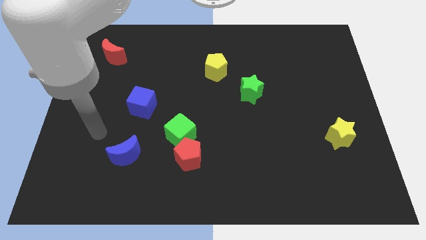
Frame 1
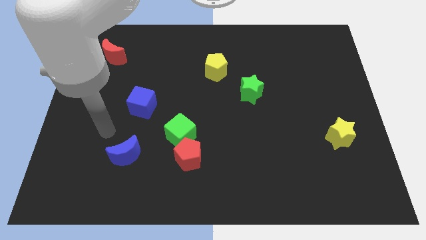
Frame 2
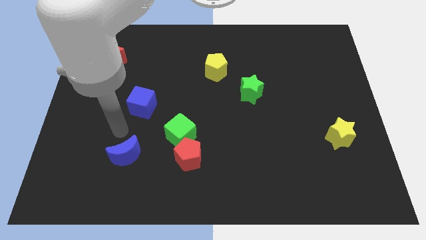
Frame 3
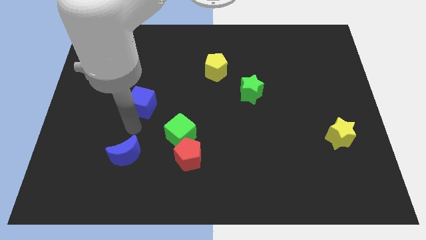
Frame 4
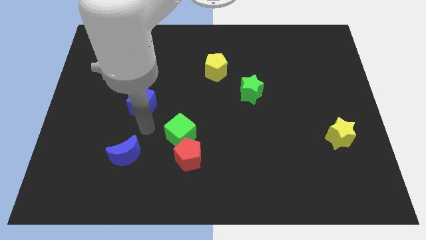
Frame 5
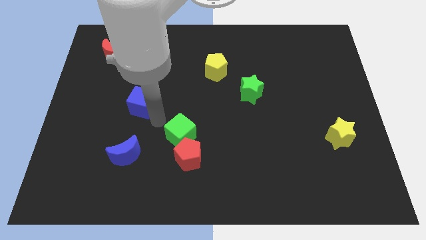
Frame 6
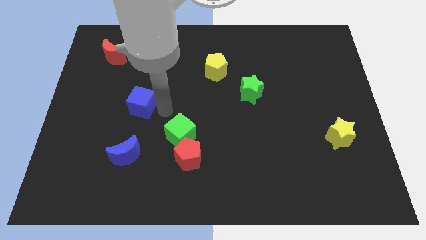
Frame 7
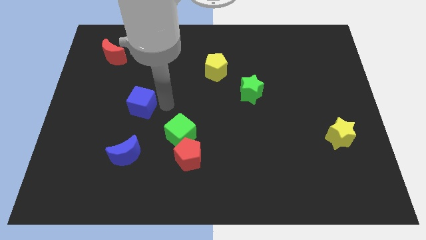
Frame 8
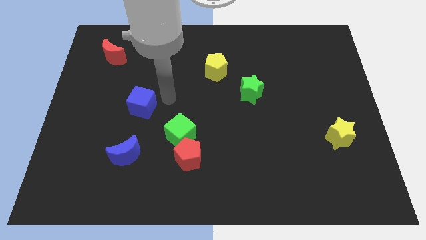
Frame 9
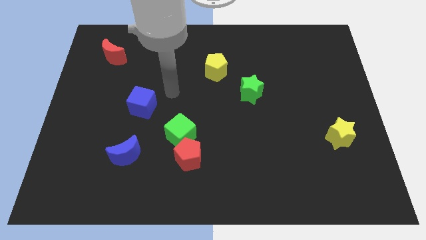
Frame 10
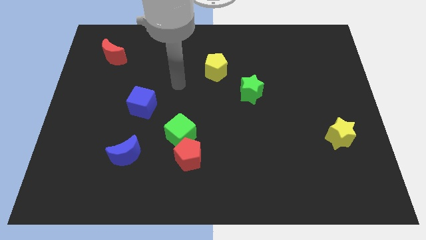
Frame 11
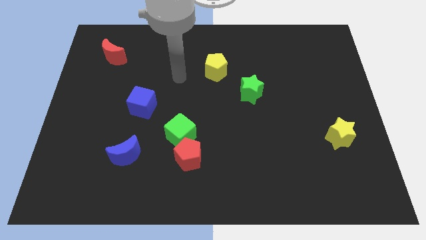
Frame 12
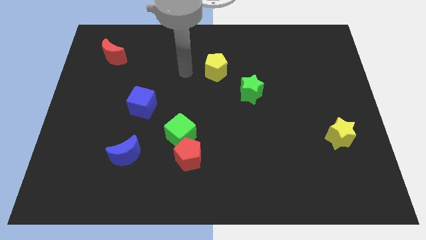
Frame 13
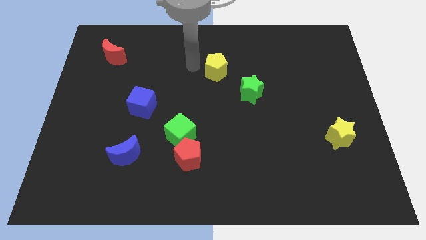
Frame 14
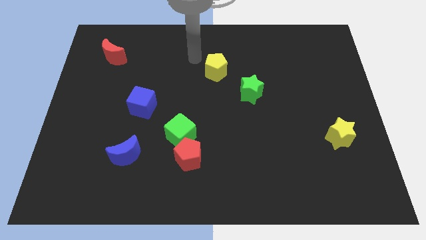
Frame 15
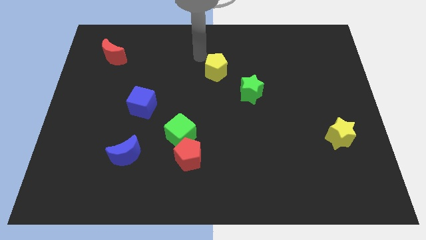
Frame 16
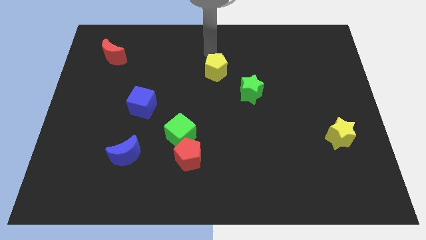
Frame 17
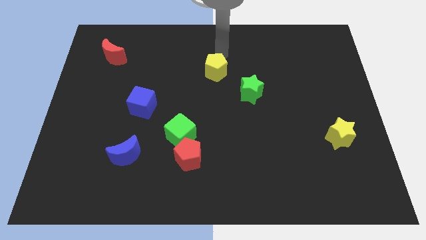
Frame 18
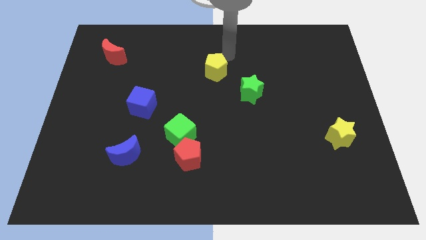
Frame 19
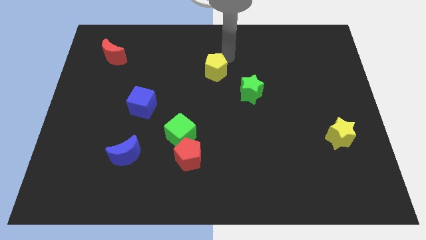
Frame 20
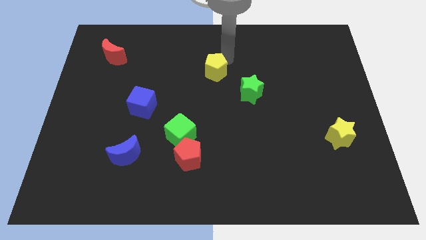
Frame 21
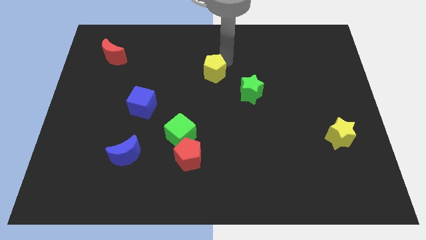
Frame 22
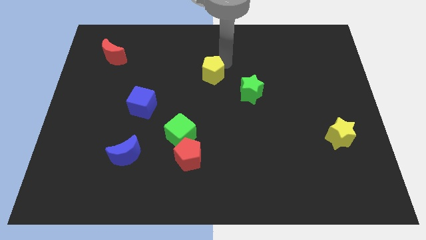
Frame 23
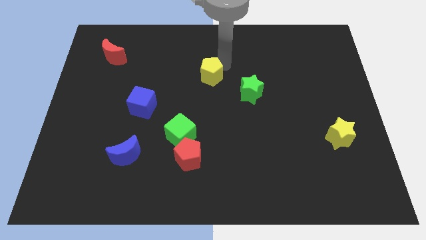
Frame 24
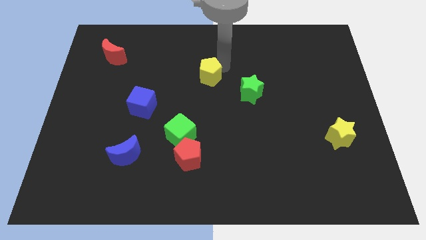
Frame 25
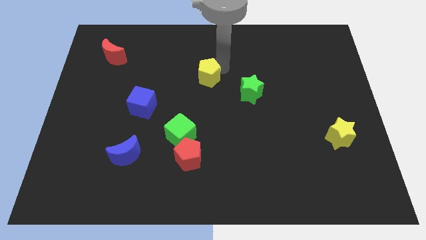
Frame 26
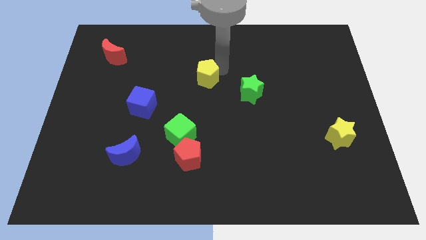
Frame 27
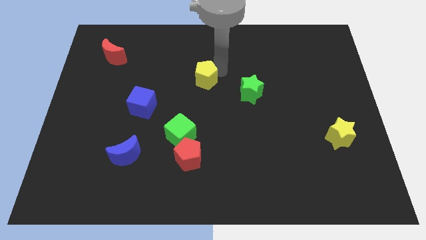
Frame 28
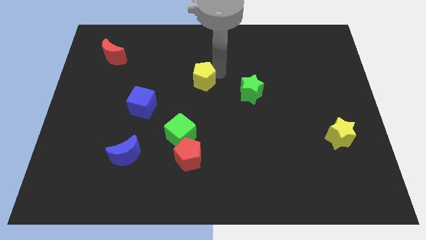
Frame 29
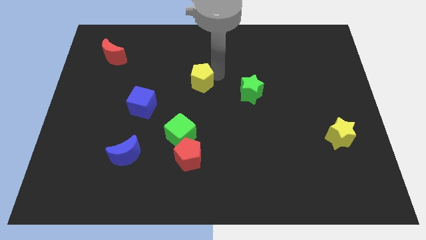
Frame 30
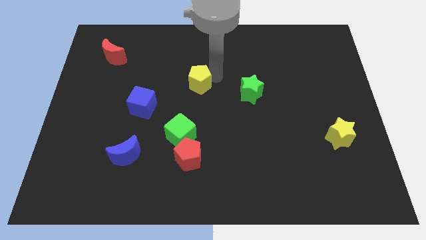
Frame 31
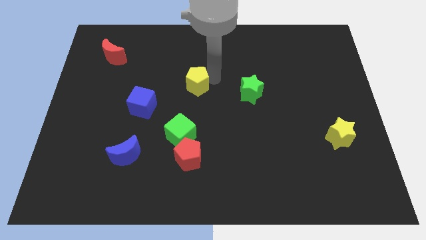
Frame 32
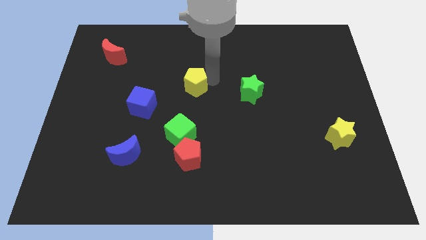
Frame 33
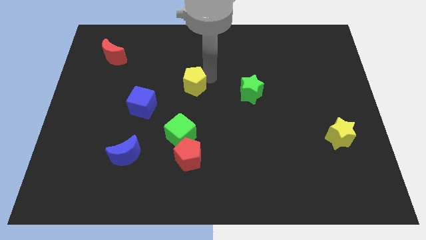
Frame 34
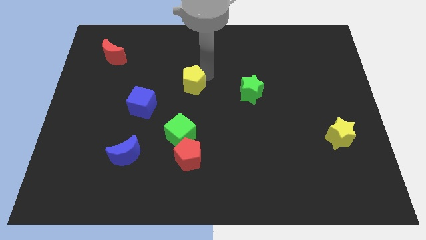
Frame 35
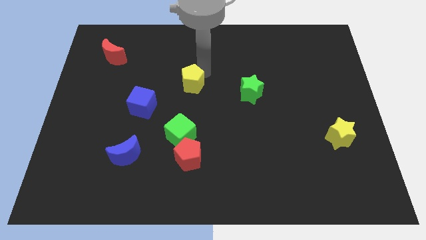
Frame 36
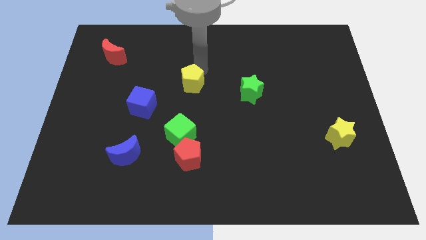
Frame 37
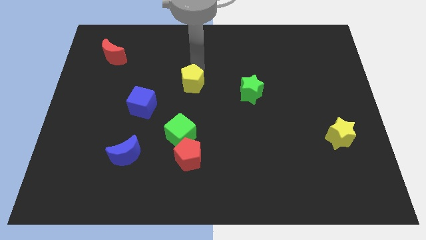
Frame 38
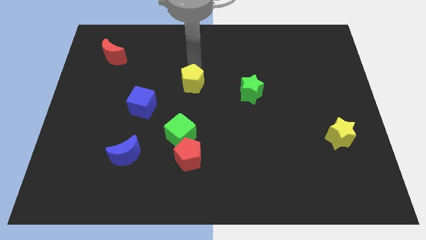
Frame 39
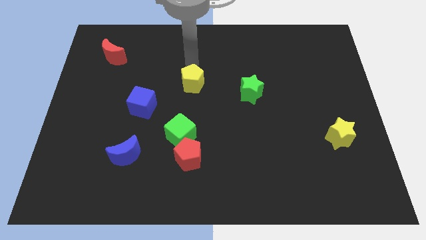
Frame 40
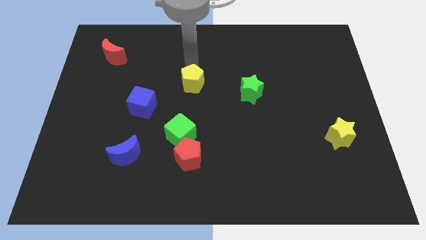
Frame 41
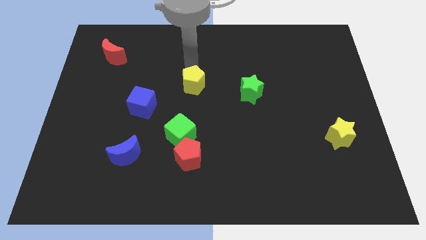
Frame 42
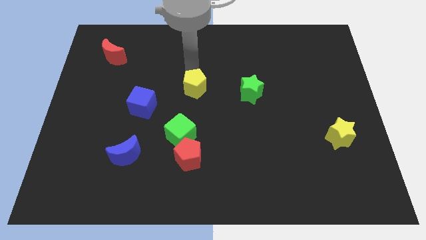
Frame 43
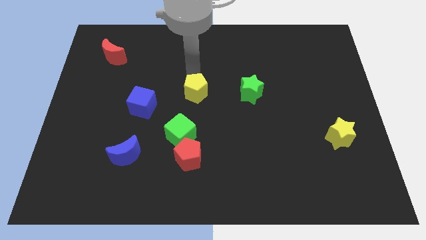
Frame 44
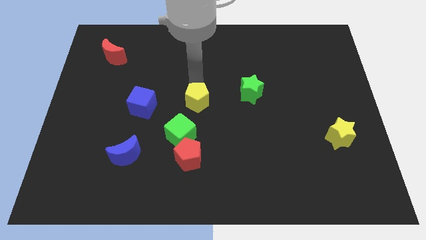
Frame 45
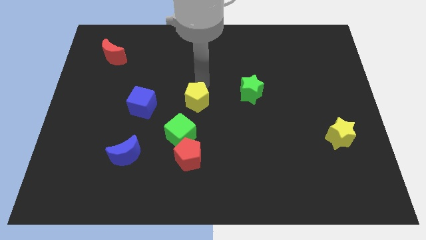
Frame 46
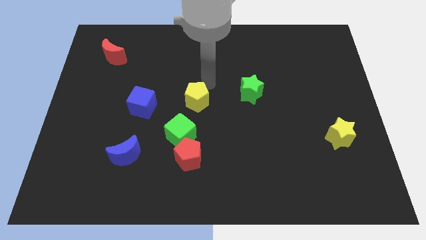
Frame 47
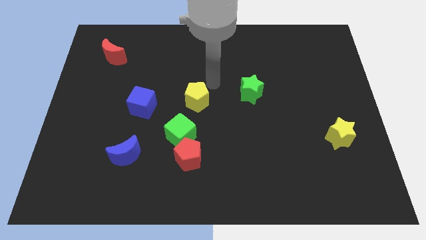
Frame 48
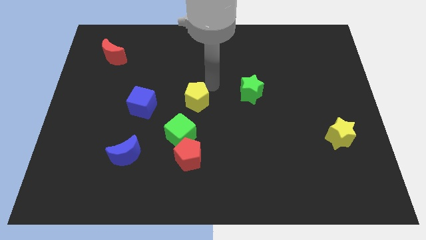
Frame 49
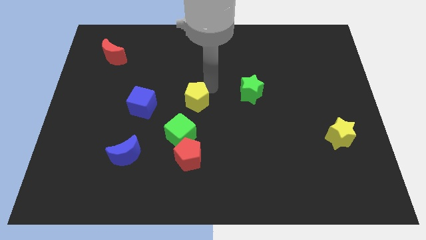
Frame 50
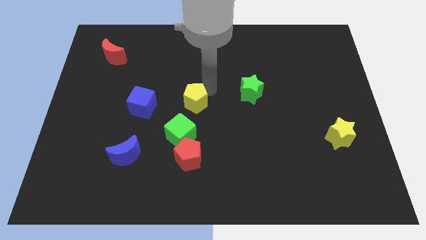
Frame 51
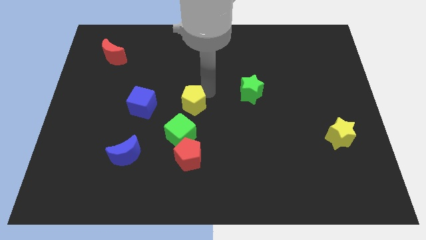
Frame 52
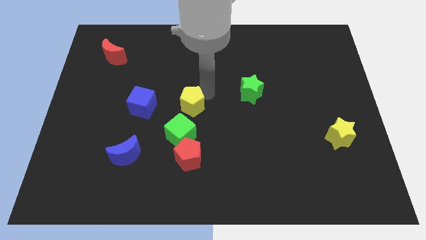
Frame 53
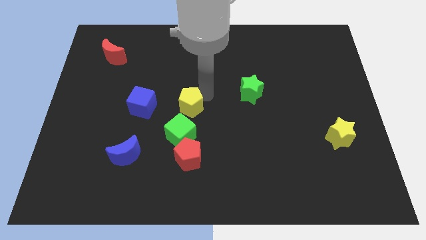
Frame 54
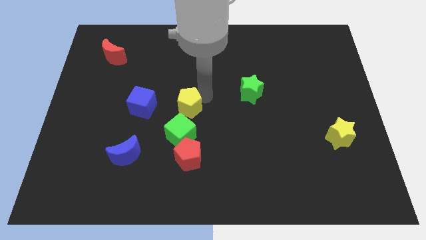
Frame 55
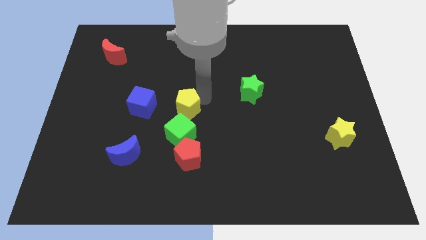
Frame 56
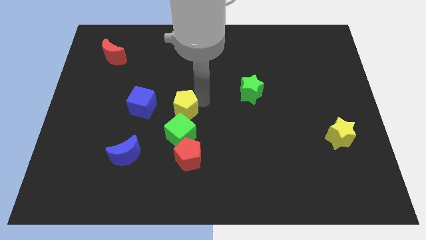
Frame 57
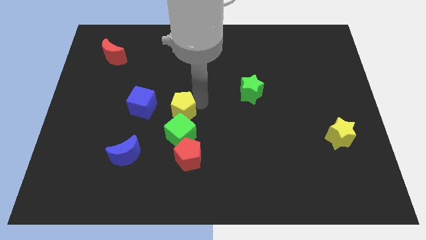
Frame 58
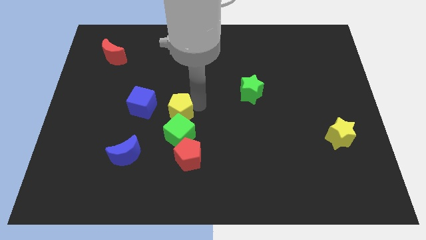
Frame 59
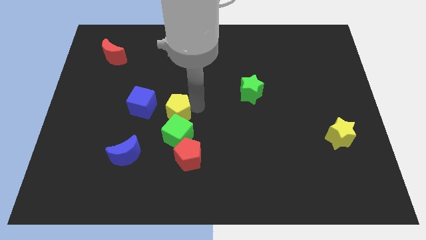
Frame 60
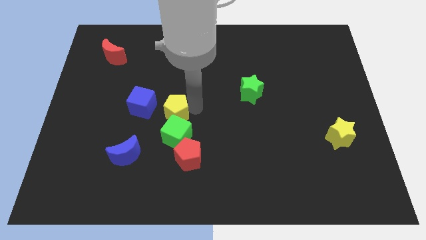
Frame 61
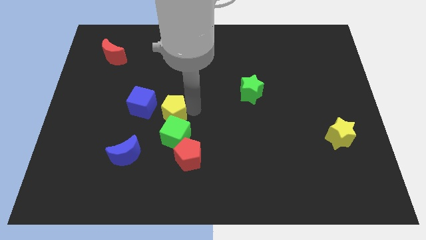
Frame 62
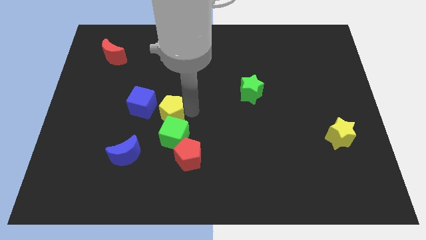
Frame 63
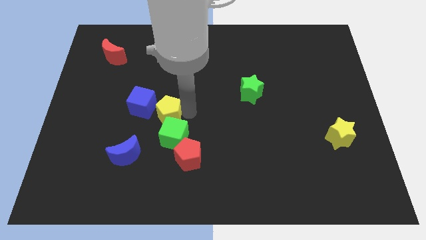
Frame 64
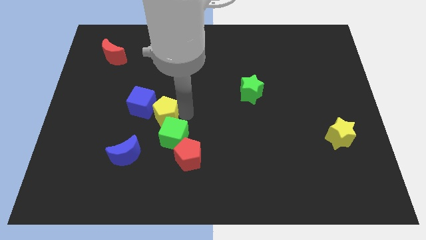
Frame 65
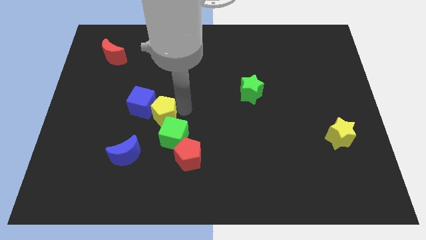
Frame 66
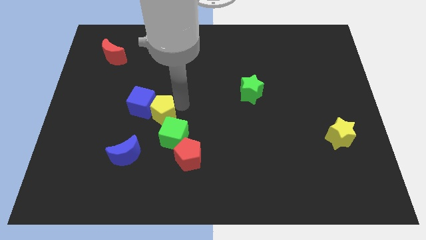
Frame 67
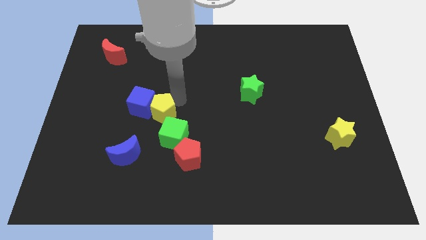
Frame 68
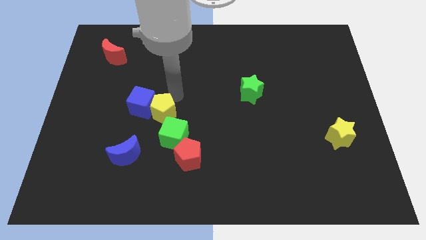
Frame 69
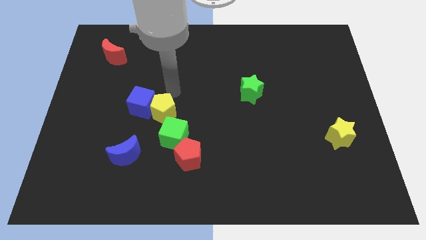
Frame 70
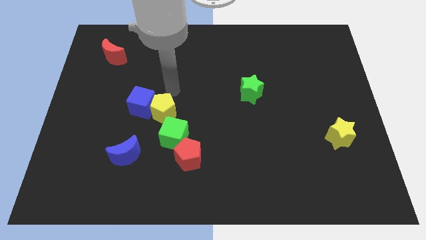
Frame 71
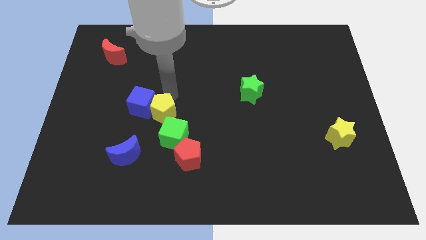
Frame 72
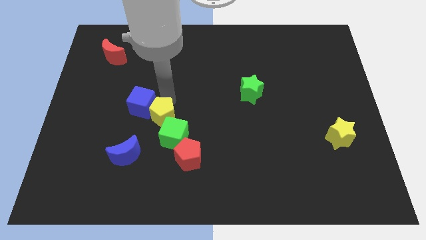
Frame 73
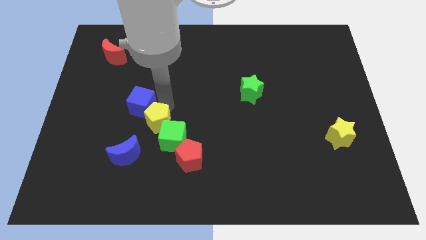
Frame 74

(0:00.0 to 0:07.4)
move the yellow pentagon diagonally up and to the right of the blue moon

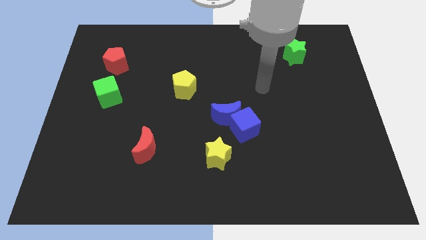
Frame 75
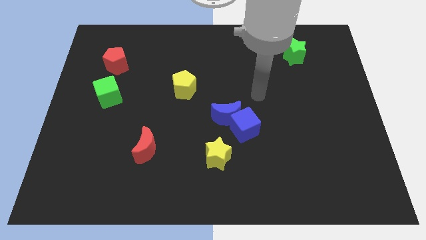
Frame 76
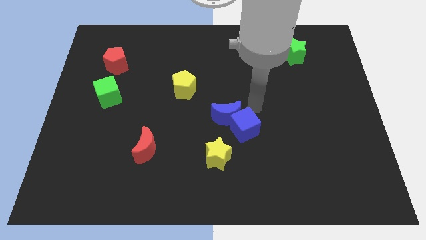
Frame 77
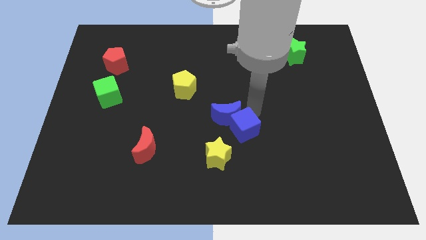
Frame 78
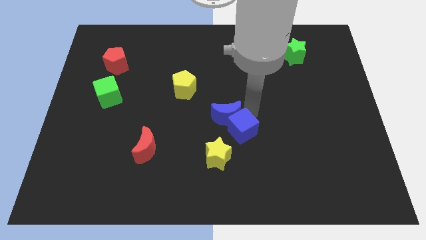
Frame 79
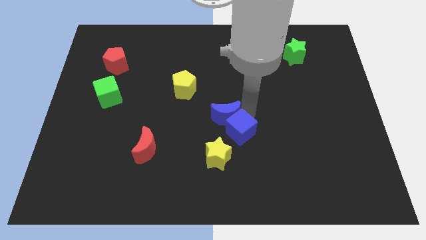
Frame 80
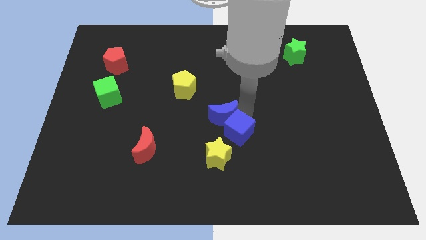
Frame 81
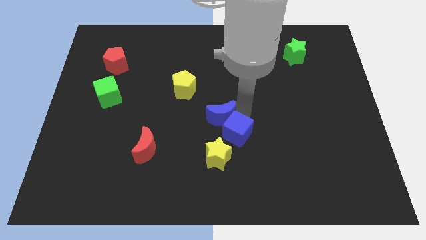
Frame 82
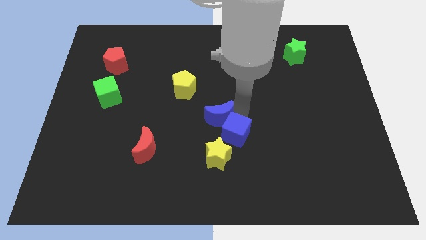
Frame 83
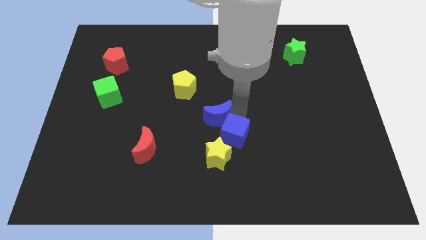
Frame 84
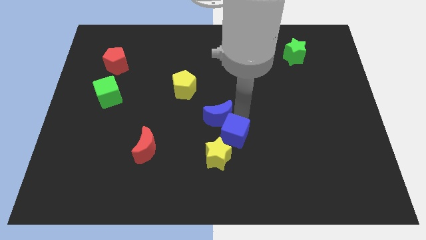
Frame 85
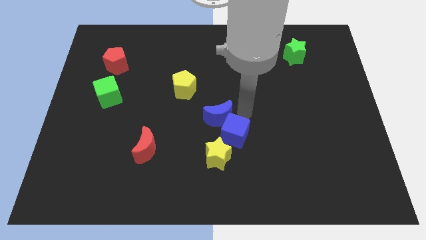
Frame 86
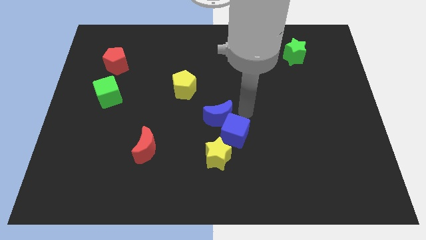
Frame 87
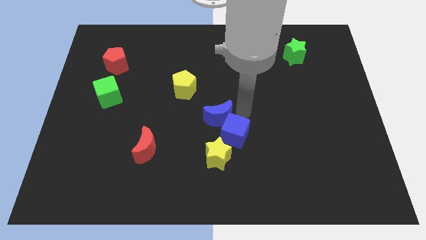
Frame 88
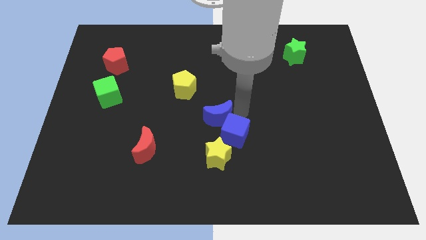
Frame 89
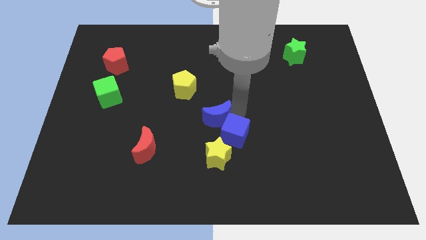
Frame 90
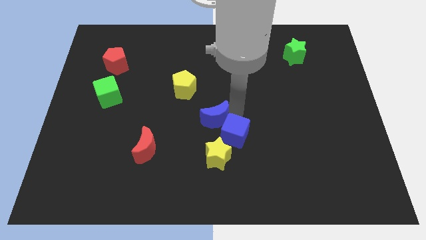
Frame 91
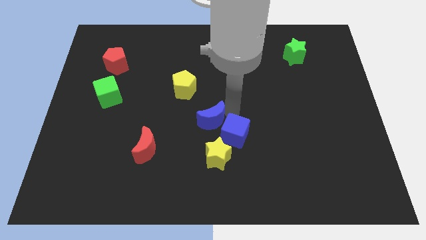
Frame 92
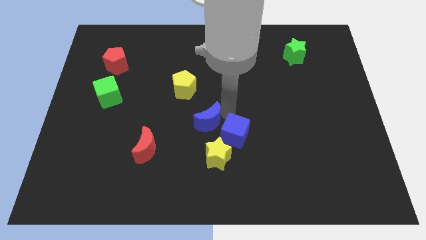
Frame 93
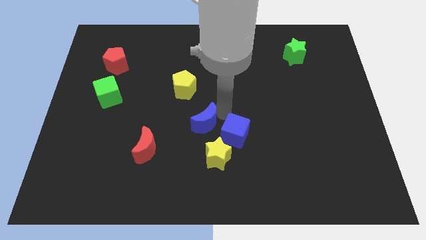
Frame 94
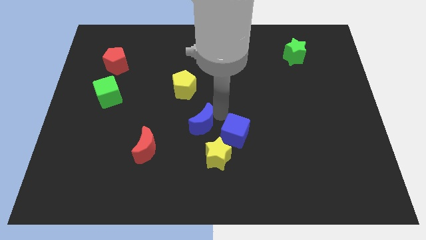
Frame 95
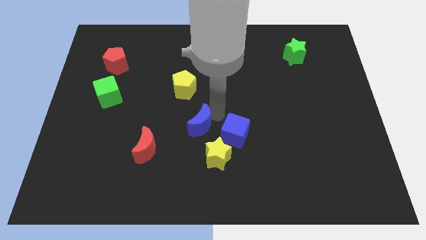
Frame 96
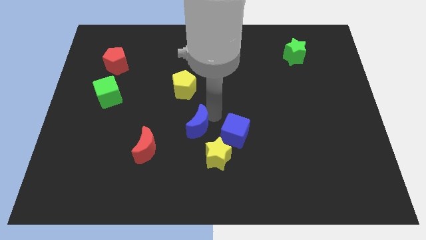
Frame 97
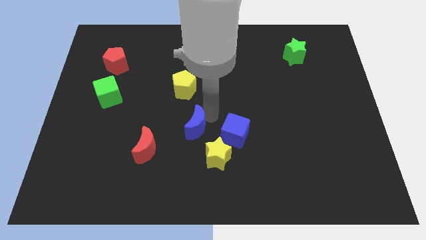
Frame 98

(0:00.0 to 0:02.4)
push the blue moon diagonally up and to the right of the red moon
